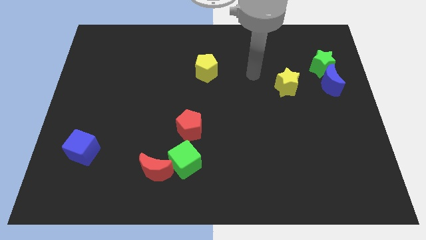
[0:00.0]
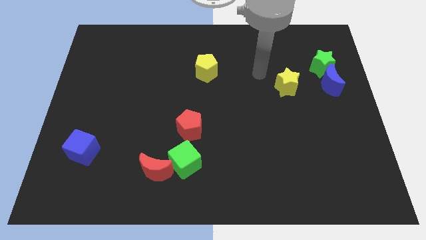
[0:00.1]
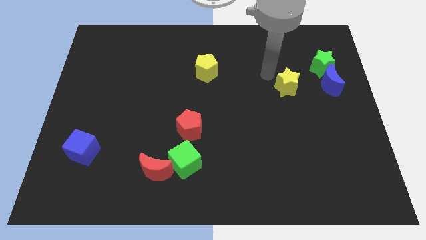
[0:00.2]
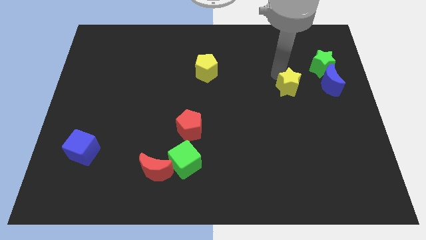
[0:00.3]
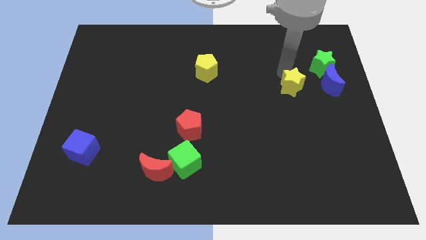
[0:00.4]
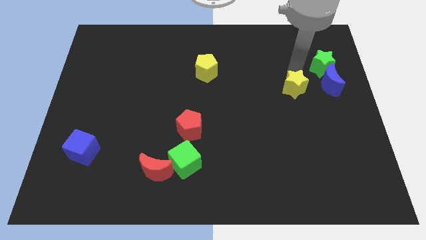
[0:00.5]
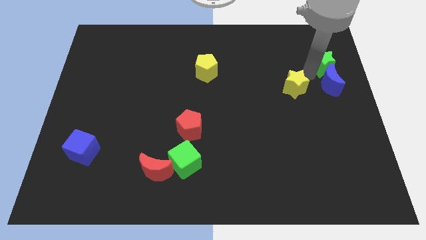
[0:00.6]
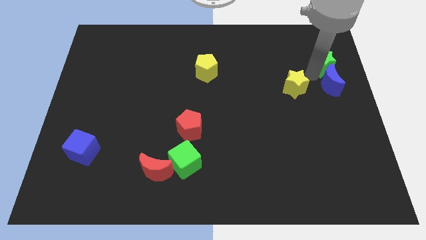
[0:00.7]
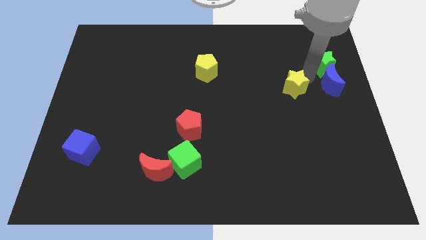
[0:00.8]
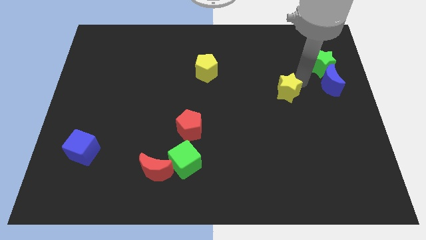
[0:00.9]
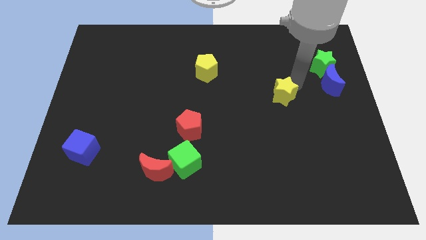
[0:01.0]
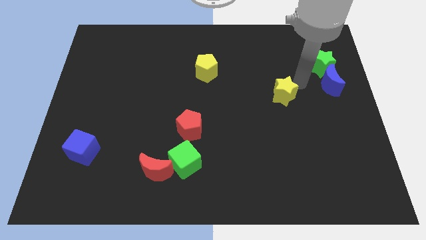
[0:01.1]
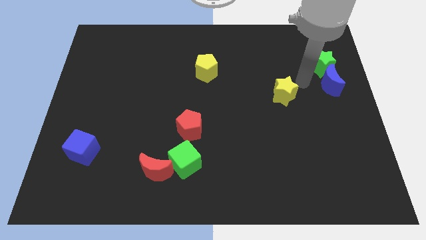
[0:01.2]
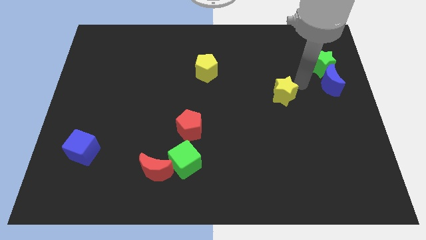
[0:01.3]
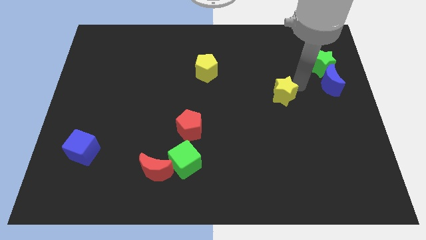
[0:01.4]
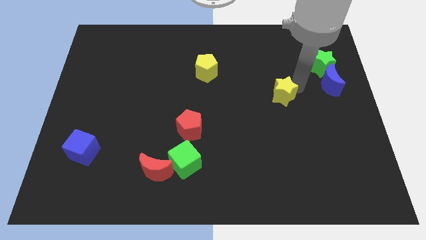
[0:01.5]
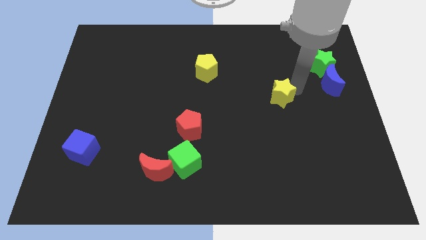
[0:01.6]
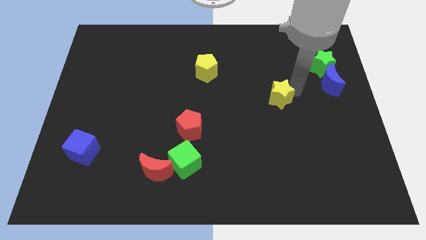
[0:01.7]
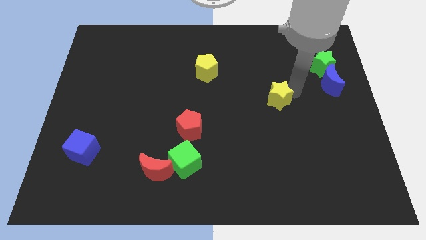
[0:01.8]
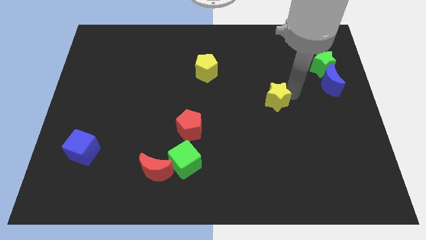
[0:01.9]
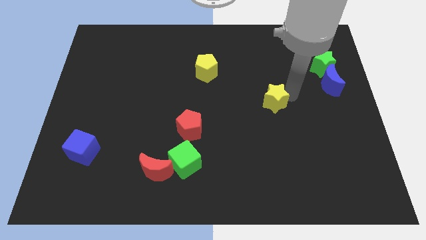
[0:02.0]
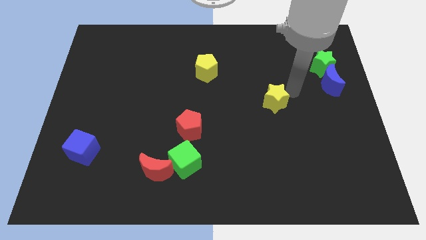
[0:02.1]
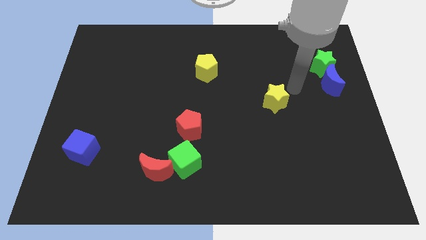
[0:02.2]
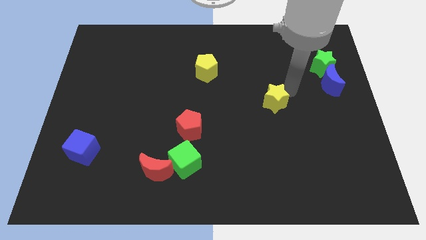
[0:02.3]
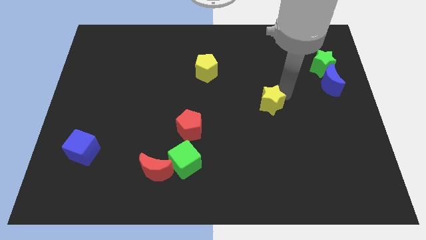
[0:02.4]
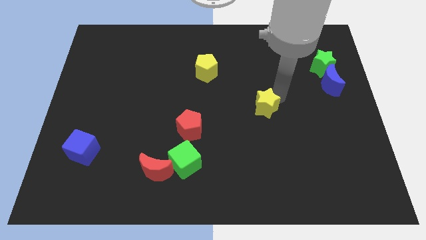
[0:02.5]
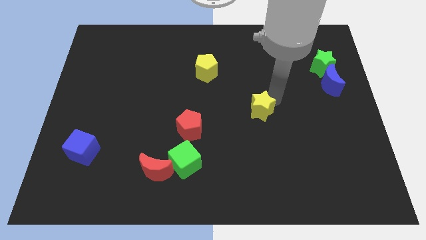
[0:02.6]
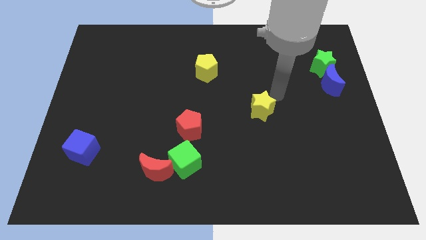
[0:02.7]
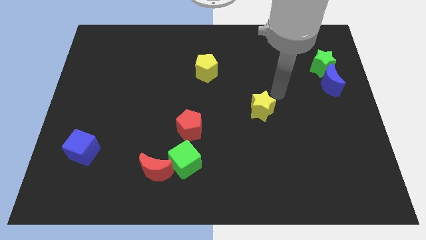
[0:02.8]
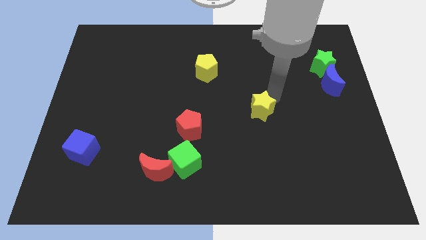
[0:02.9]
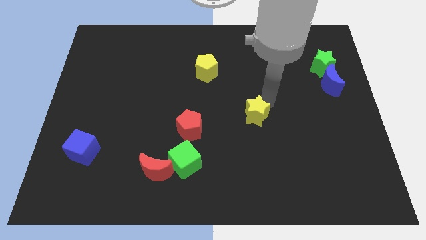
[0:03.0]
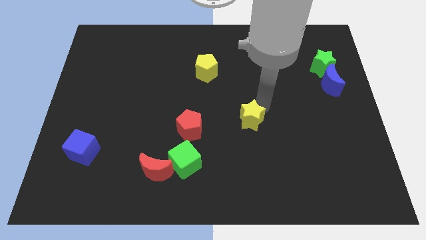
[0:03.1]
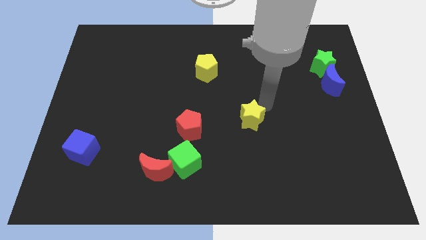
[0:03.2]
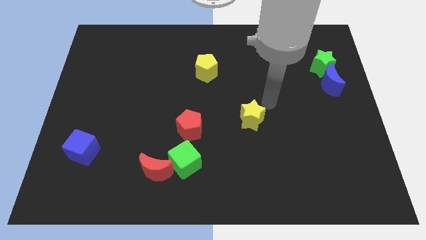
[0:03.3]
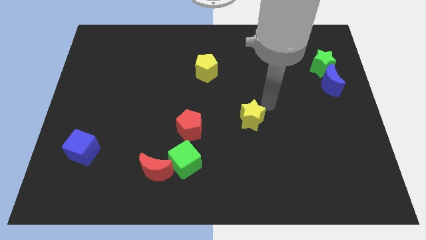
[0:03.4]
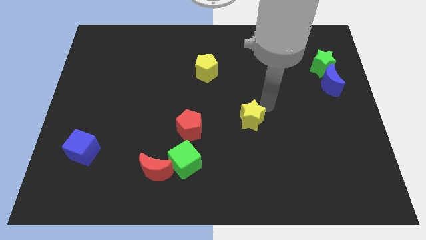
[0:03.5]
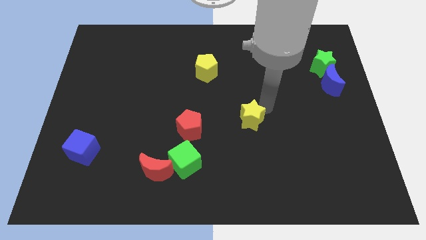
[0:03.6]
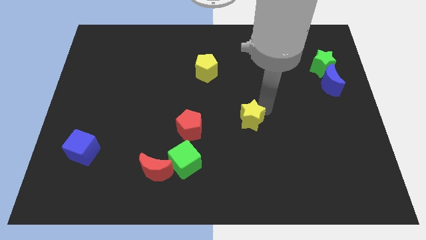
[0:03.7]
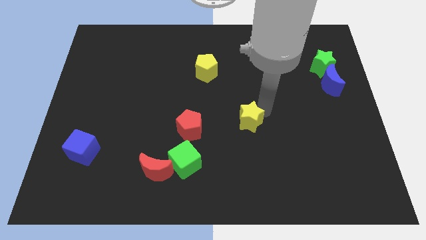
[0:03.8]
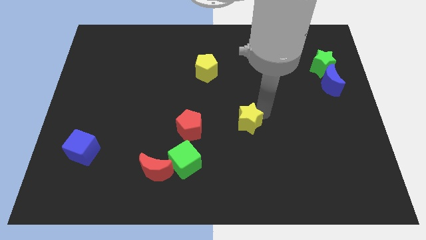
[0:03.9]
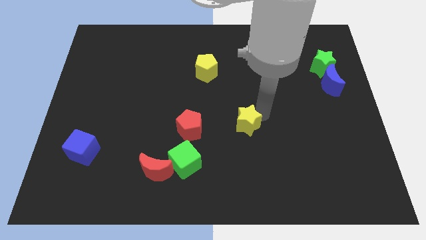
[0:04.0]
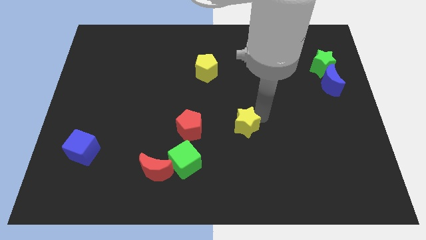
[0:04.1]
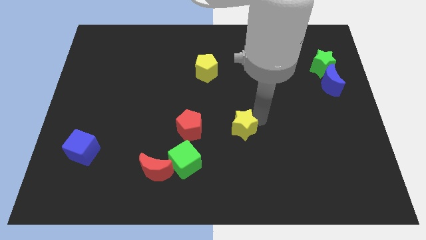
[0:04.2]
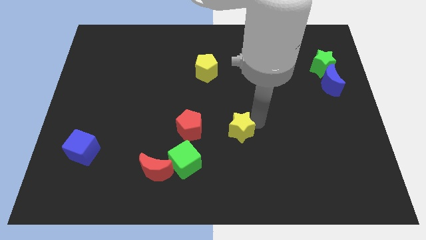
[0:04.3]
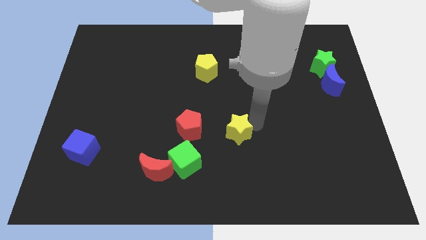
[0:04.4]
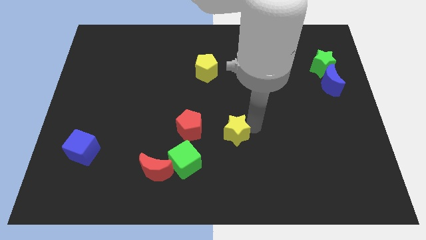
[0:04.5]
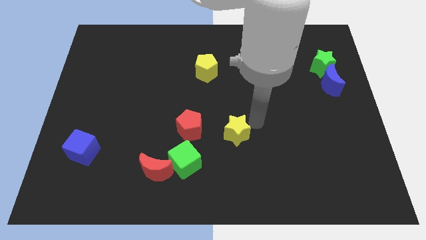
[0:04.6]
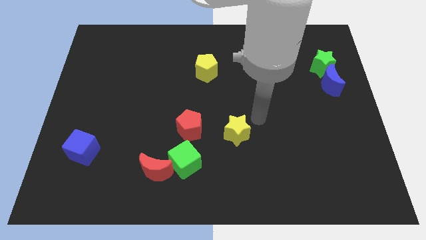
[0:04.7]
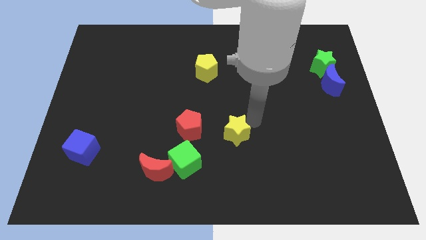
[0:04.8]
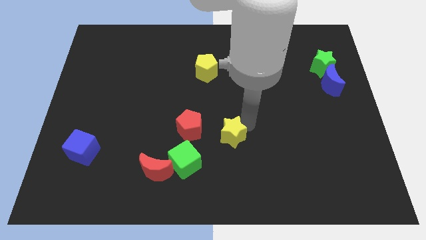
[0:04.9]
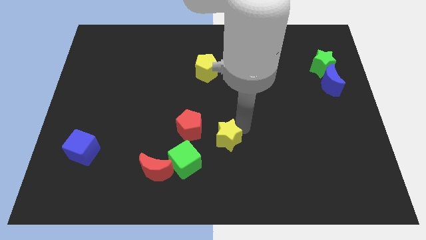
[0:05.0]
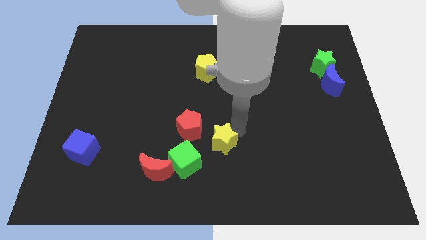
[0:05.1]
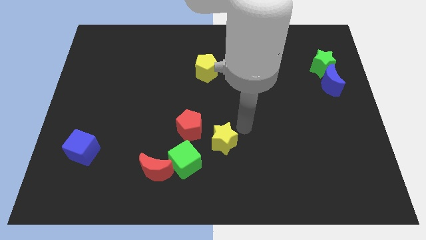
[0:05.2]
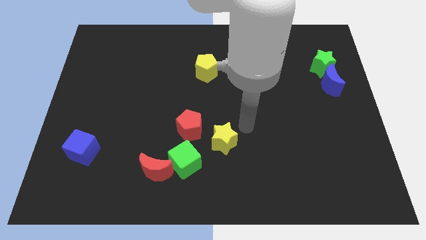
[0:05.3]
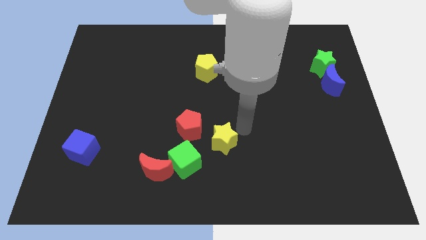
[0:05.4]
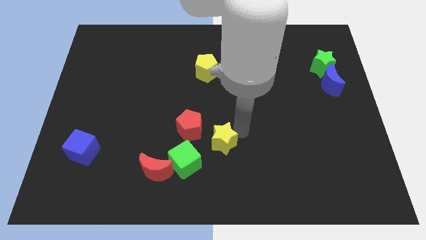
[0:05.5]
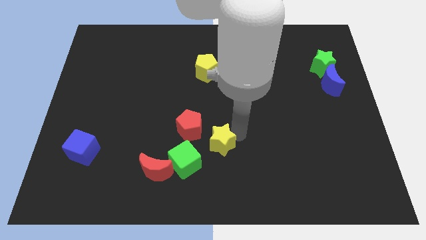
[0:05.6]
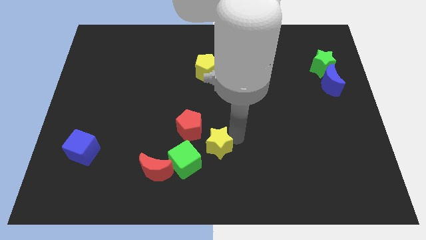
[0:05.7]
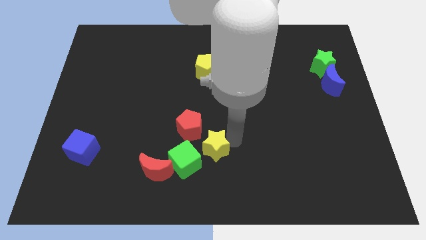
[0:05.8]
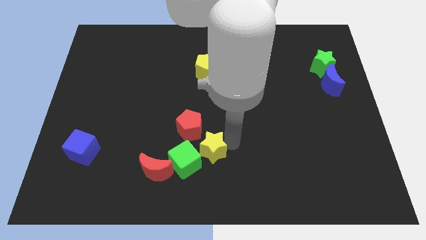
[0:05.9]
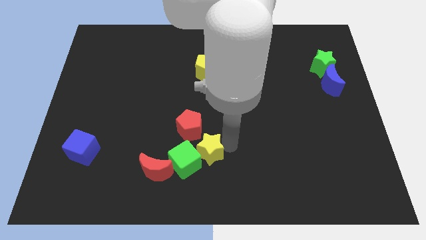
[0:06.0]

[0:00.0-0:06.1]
move the yellow star towards the green cube

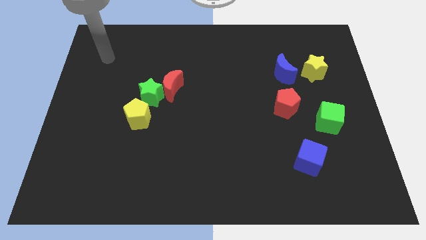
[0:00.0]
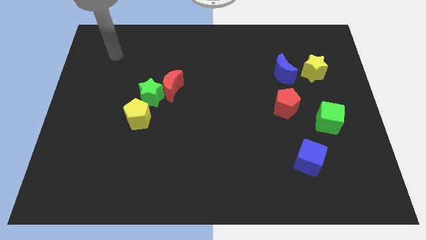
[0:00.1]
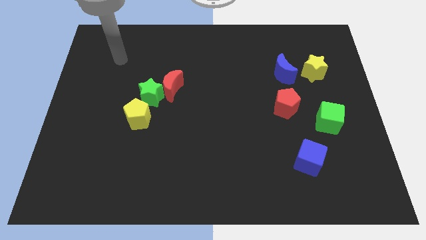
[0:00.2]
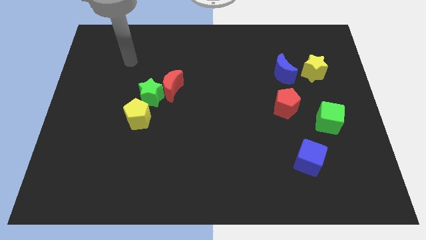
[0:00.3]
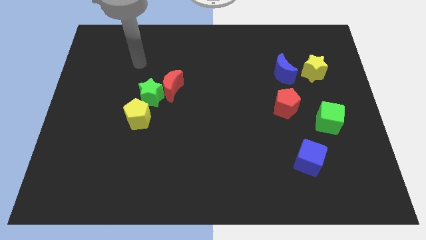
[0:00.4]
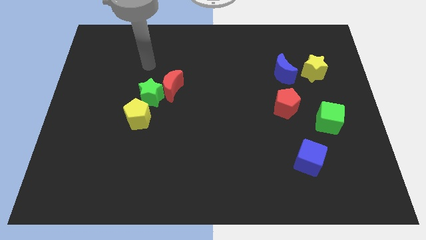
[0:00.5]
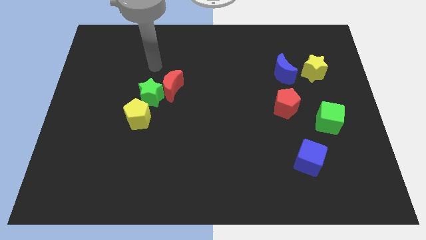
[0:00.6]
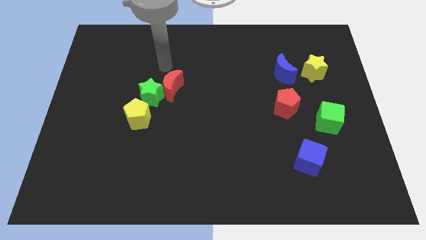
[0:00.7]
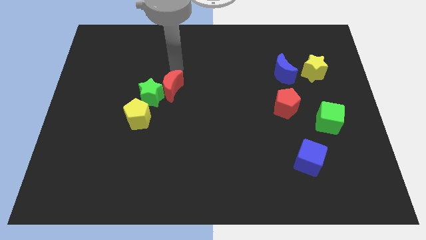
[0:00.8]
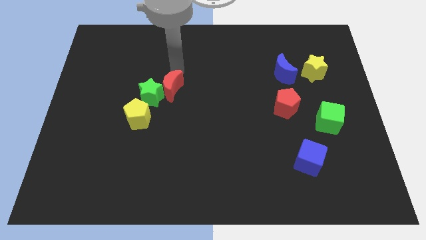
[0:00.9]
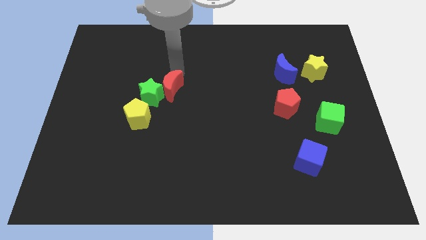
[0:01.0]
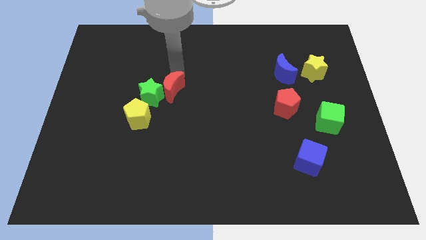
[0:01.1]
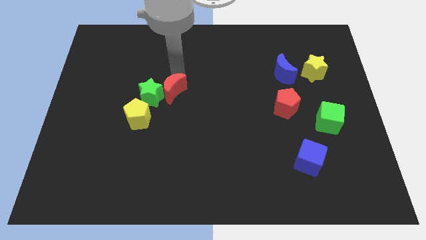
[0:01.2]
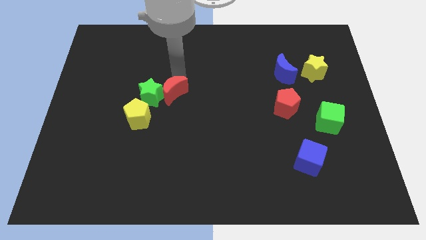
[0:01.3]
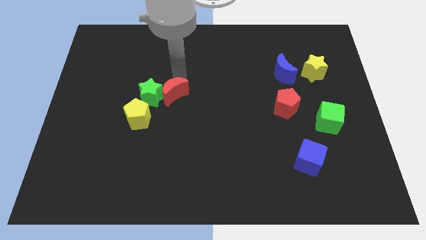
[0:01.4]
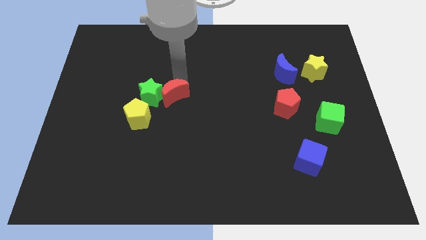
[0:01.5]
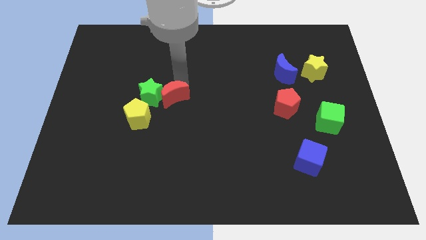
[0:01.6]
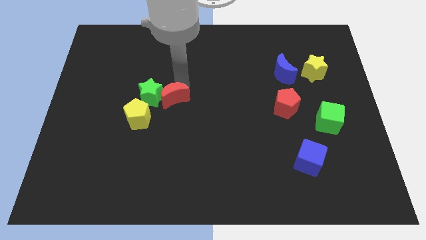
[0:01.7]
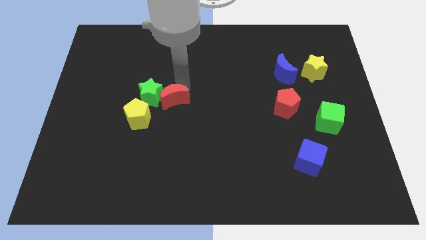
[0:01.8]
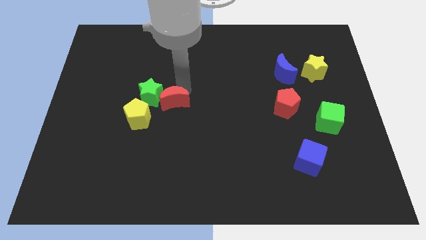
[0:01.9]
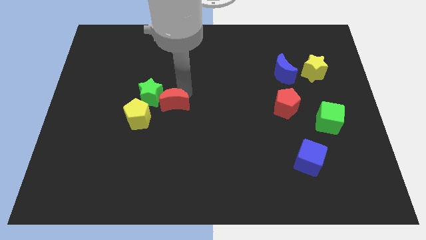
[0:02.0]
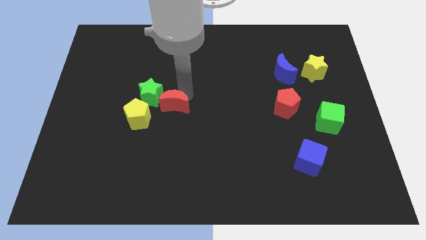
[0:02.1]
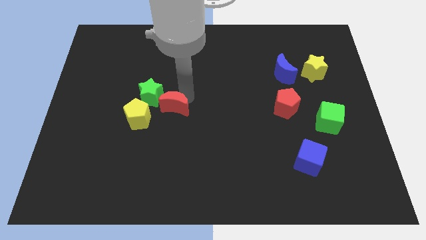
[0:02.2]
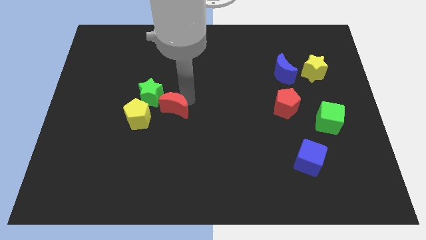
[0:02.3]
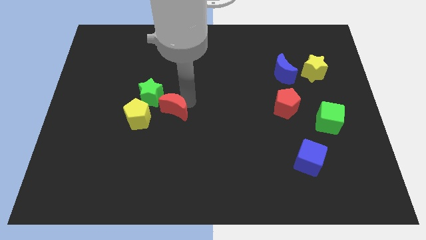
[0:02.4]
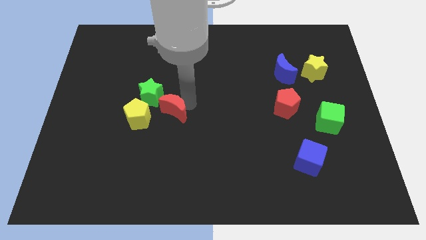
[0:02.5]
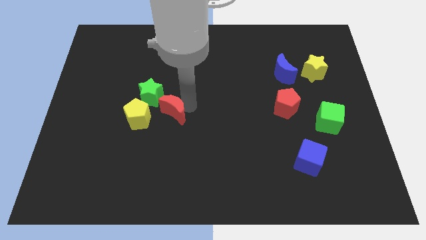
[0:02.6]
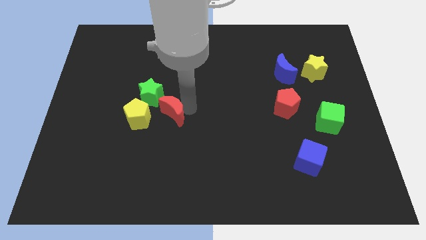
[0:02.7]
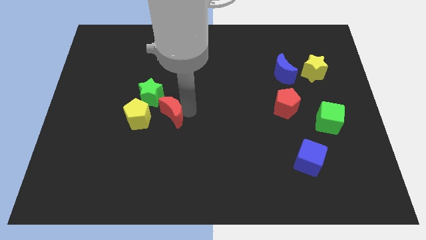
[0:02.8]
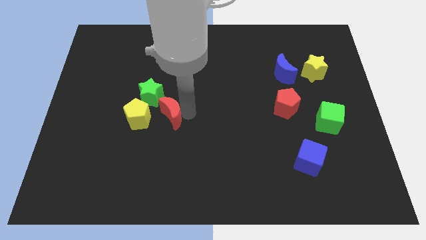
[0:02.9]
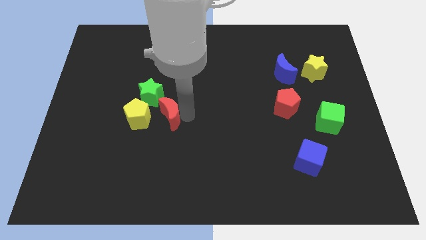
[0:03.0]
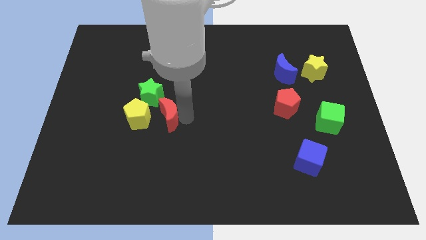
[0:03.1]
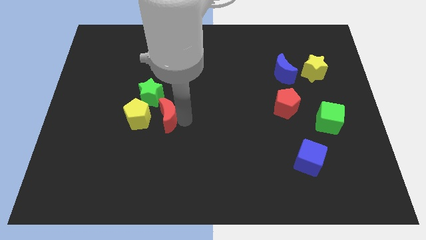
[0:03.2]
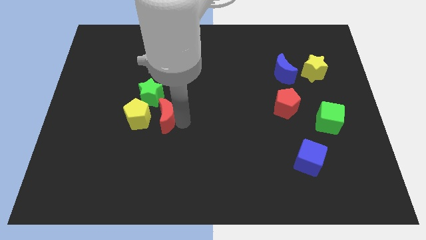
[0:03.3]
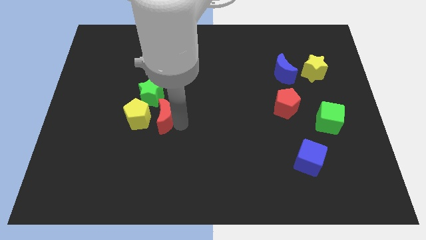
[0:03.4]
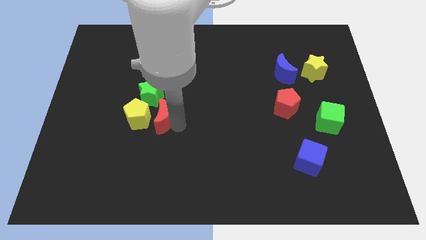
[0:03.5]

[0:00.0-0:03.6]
move the red moon close to the yellow pentagon
